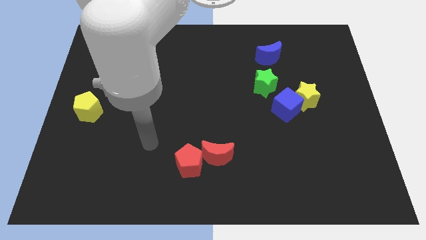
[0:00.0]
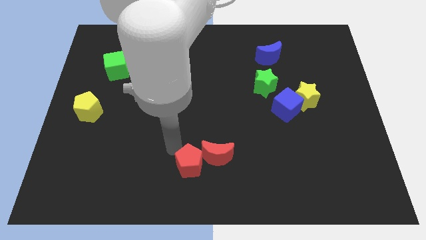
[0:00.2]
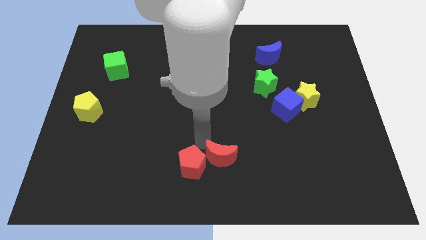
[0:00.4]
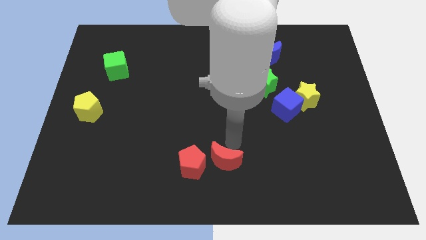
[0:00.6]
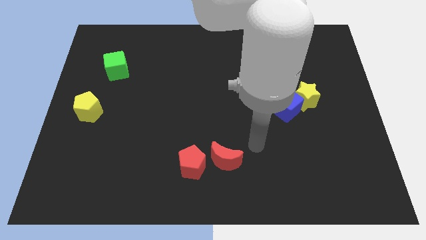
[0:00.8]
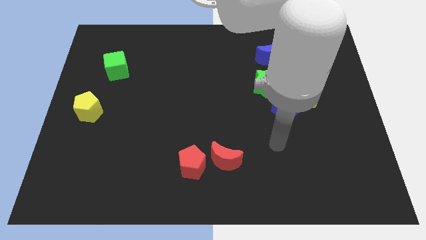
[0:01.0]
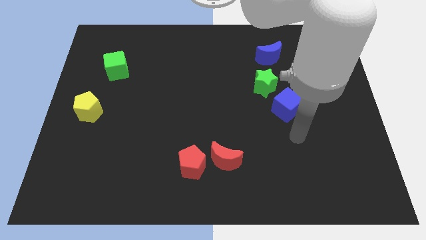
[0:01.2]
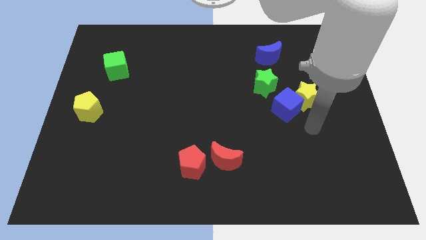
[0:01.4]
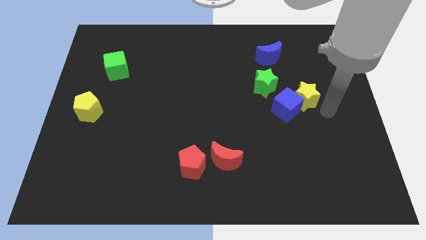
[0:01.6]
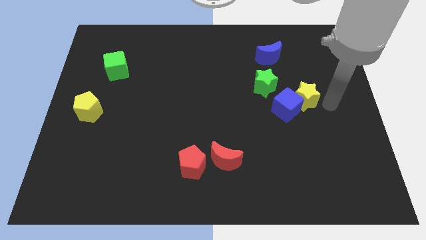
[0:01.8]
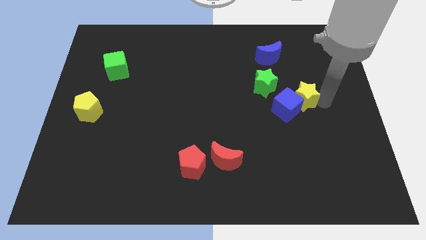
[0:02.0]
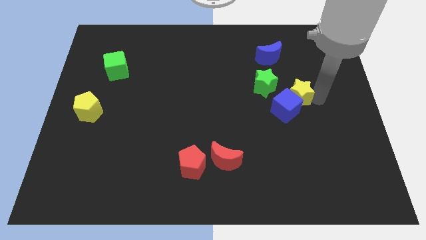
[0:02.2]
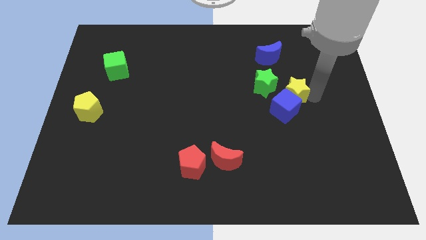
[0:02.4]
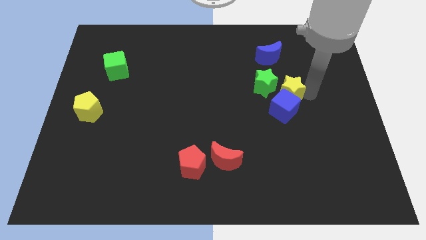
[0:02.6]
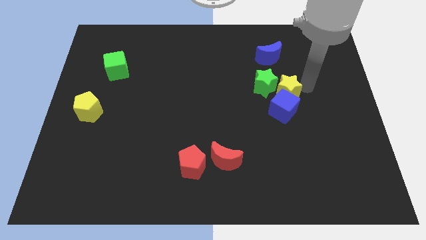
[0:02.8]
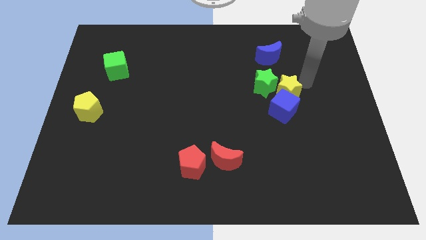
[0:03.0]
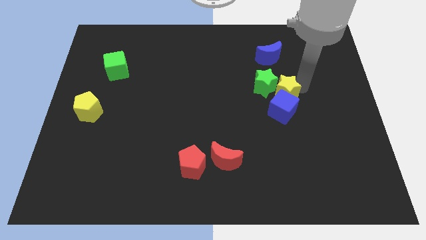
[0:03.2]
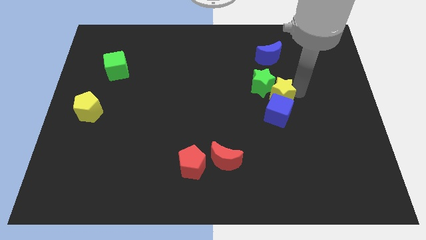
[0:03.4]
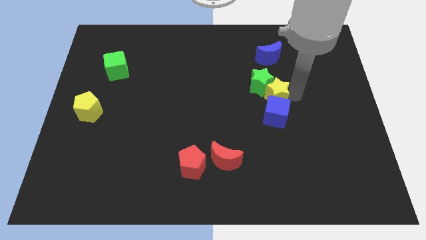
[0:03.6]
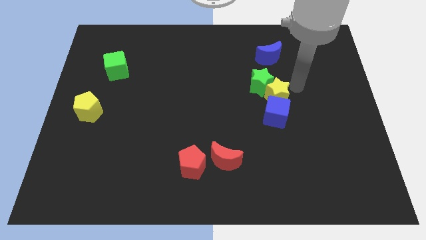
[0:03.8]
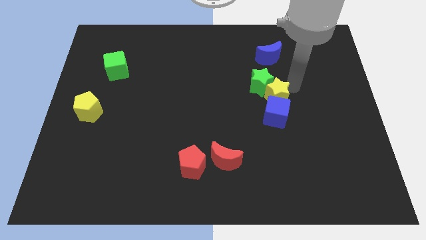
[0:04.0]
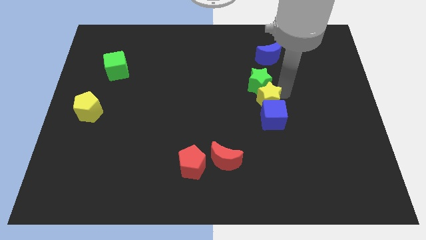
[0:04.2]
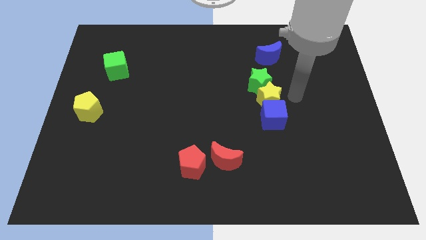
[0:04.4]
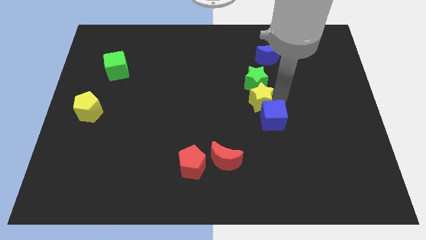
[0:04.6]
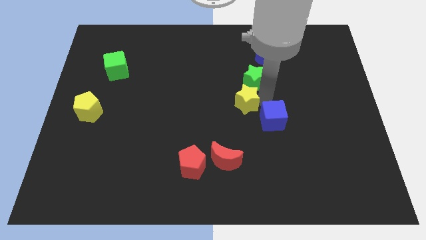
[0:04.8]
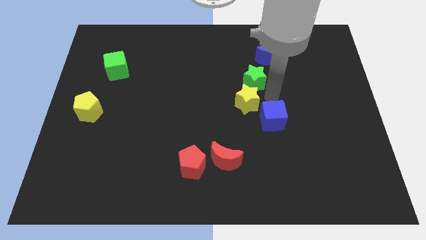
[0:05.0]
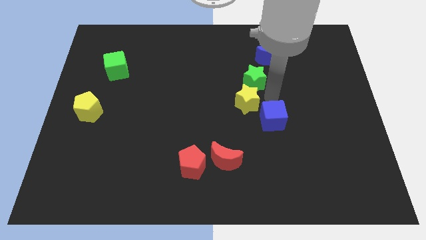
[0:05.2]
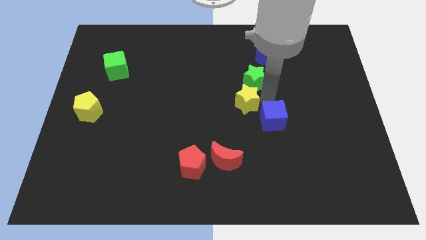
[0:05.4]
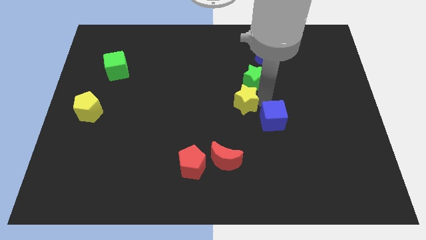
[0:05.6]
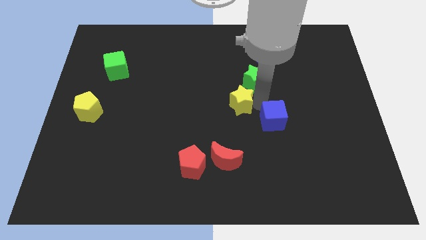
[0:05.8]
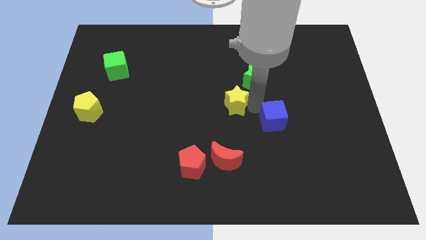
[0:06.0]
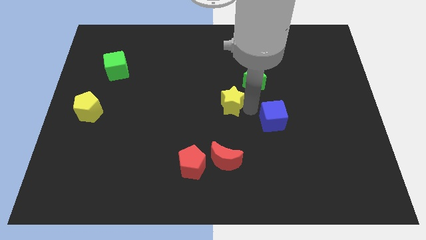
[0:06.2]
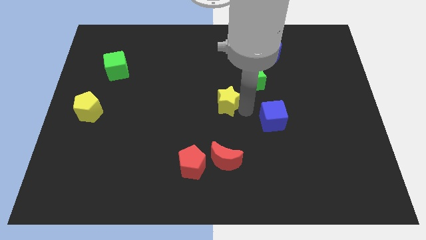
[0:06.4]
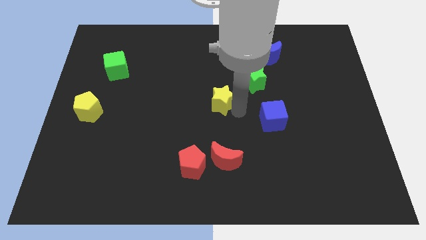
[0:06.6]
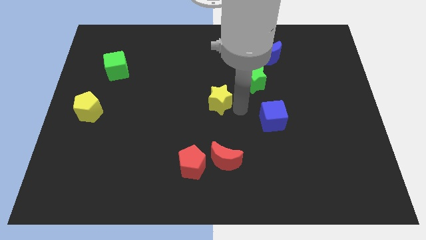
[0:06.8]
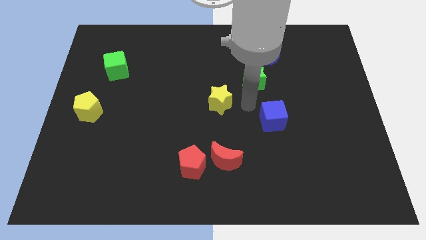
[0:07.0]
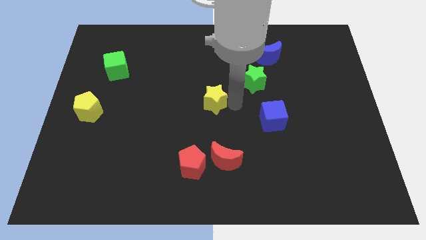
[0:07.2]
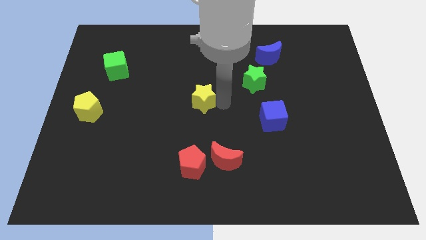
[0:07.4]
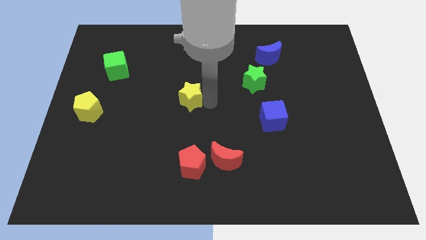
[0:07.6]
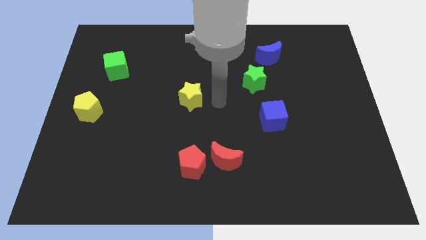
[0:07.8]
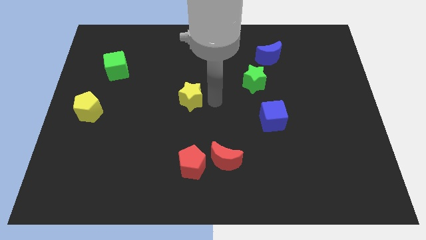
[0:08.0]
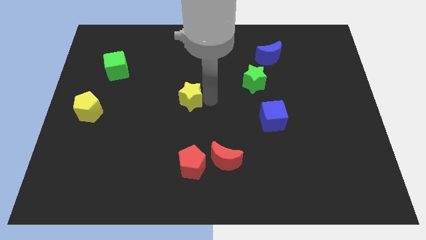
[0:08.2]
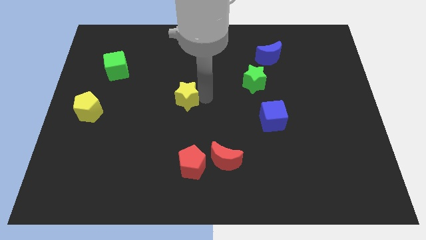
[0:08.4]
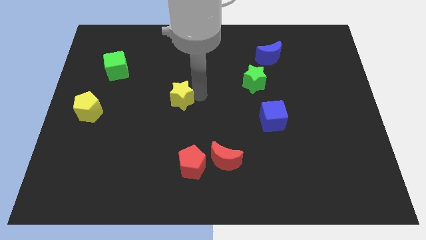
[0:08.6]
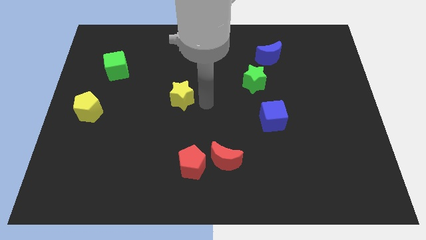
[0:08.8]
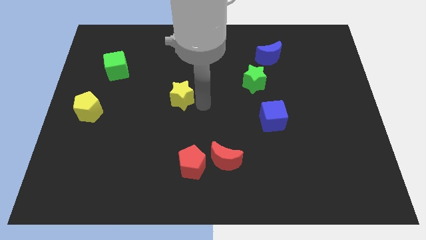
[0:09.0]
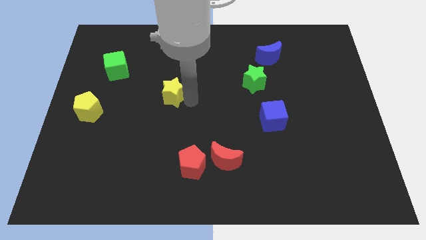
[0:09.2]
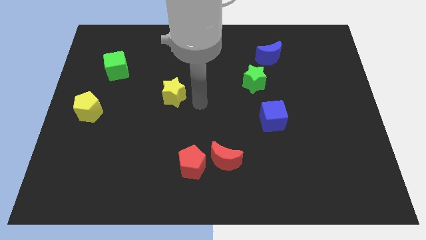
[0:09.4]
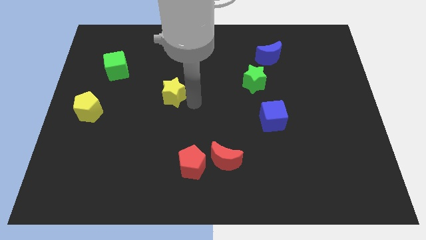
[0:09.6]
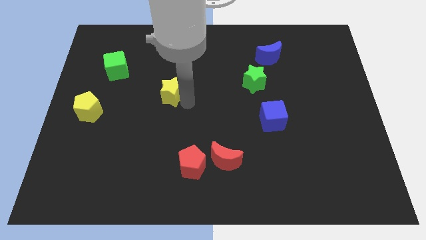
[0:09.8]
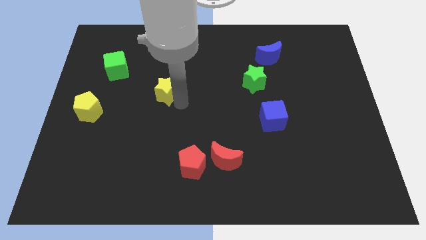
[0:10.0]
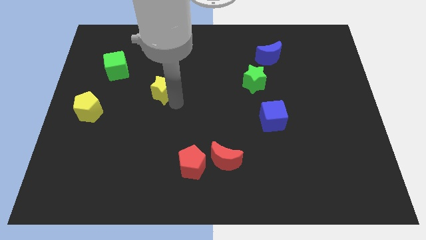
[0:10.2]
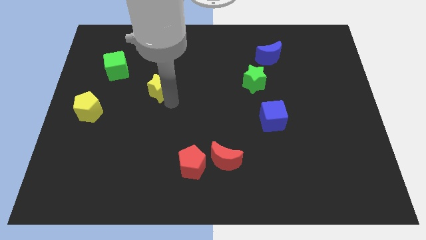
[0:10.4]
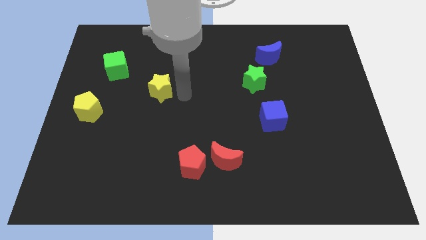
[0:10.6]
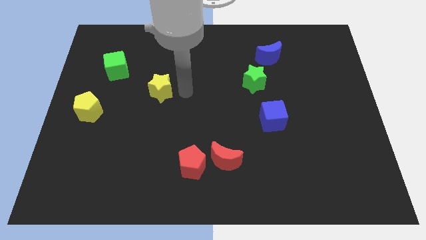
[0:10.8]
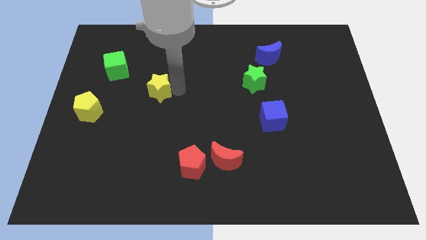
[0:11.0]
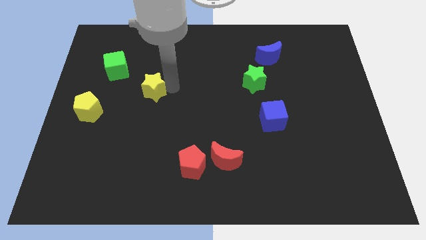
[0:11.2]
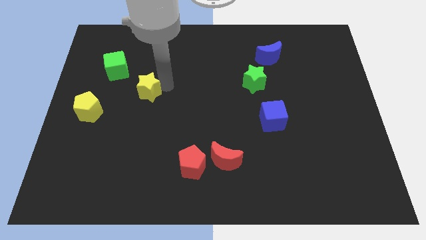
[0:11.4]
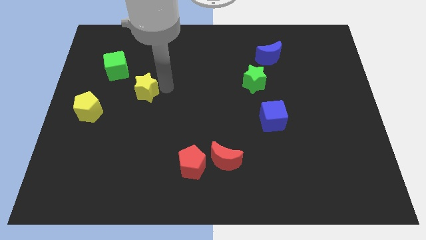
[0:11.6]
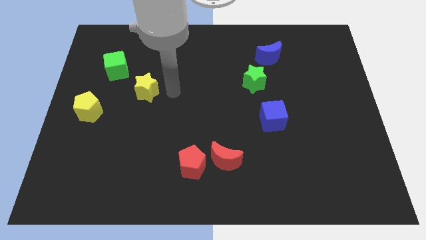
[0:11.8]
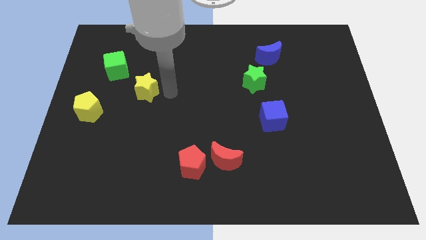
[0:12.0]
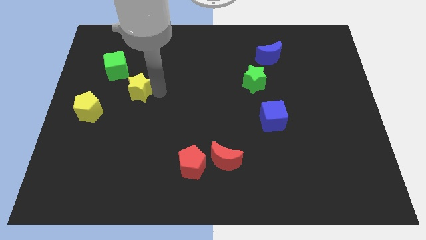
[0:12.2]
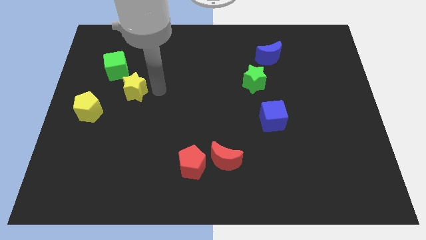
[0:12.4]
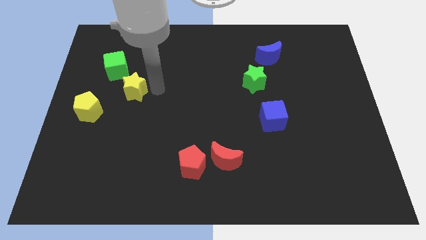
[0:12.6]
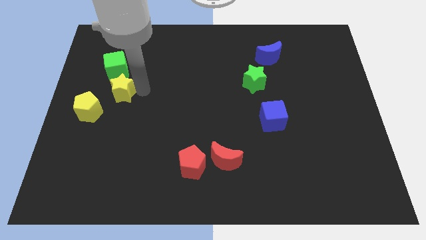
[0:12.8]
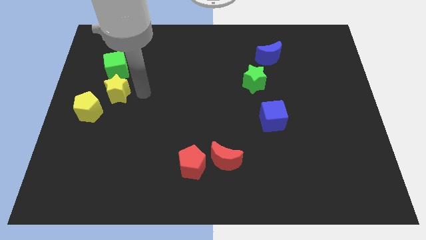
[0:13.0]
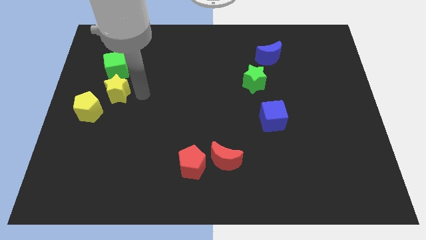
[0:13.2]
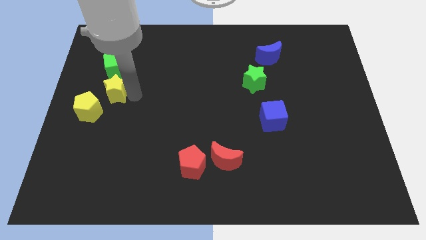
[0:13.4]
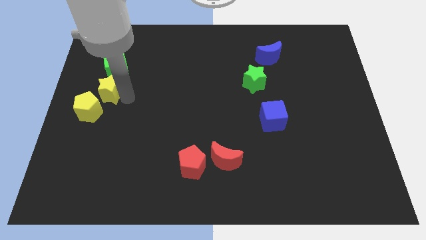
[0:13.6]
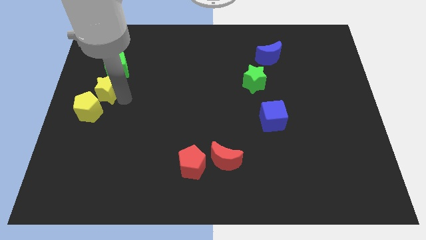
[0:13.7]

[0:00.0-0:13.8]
move the yellow star to the center left
